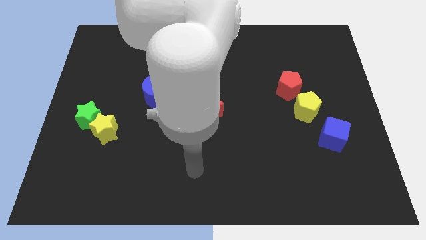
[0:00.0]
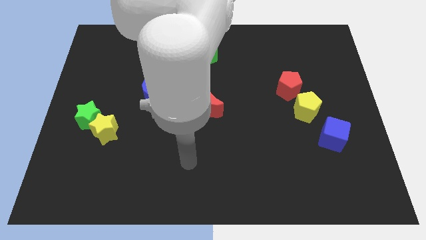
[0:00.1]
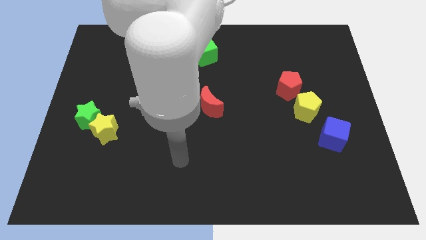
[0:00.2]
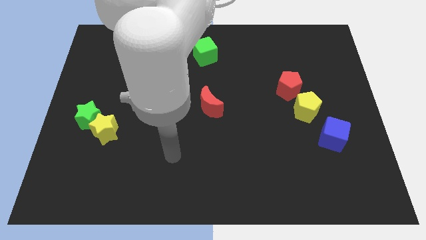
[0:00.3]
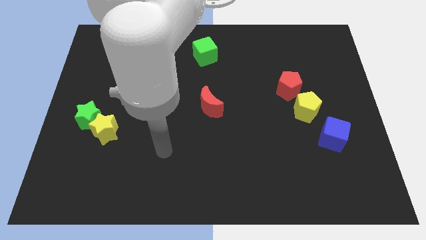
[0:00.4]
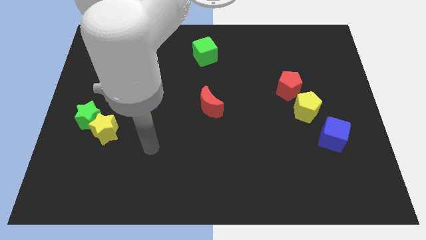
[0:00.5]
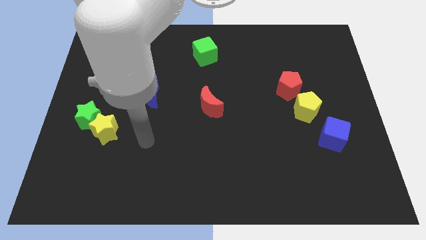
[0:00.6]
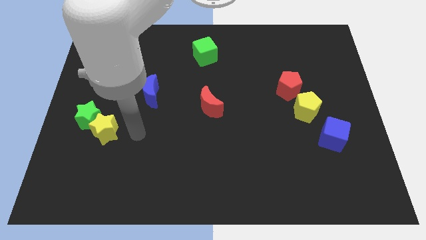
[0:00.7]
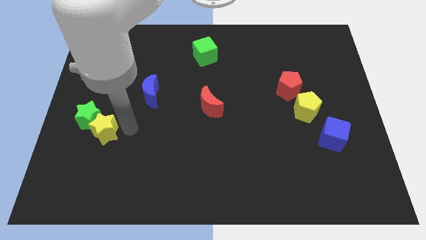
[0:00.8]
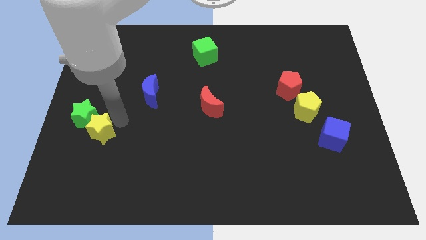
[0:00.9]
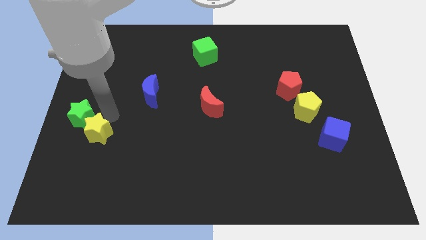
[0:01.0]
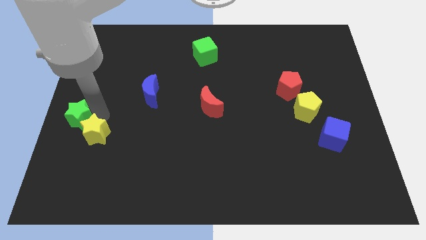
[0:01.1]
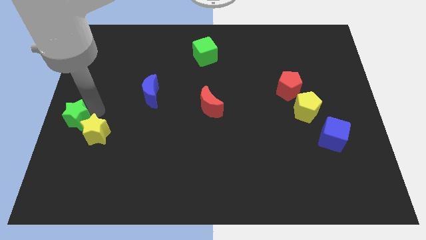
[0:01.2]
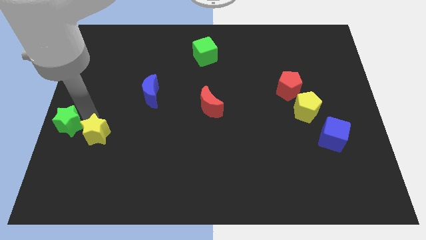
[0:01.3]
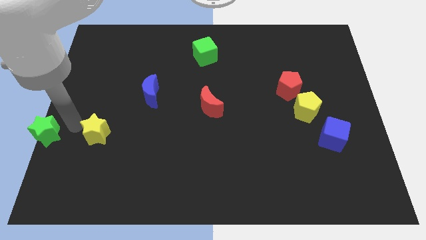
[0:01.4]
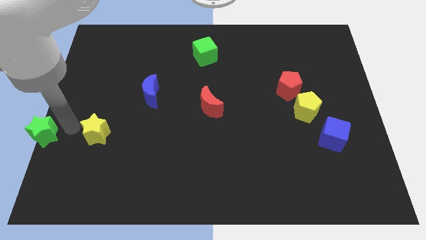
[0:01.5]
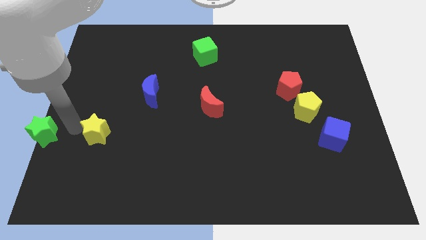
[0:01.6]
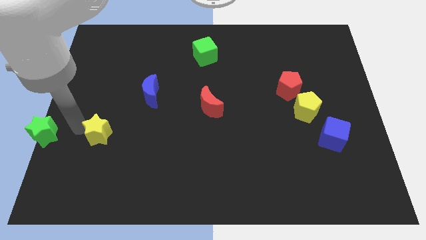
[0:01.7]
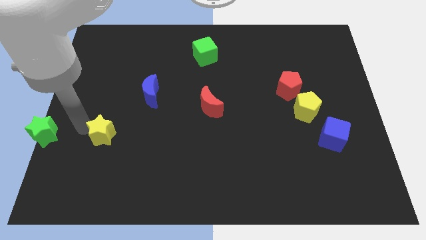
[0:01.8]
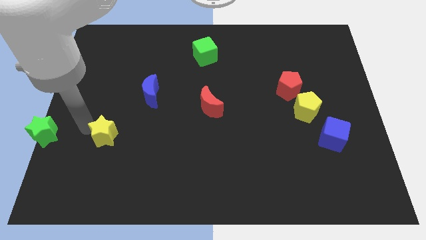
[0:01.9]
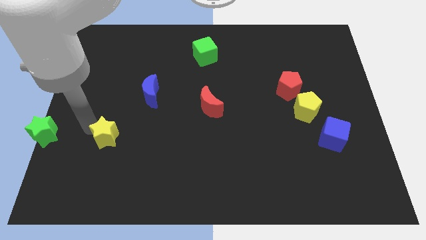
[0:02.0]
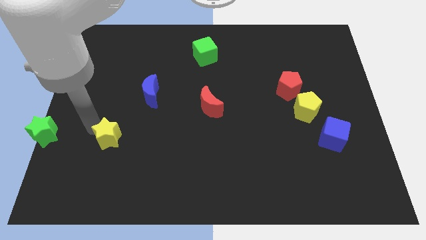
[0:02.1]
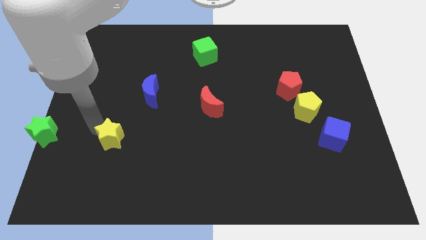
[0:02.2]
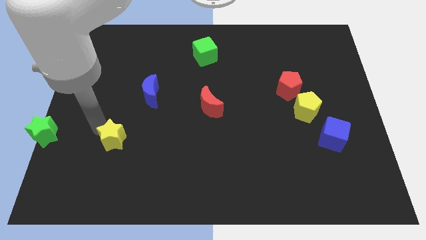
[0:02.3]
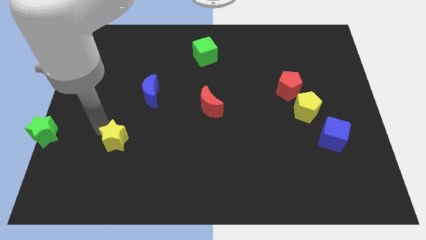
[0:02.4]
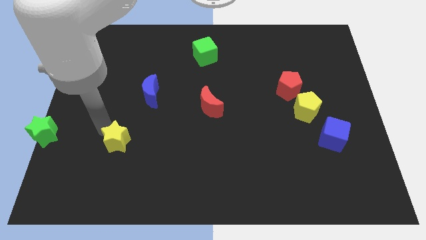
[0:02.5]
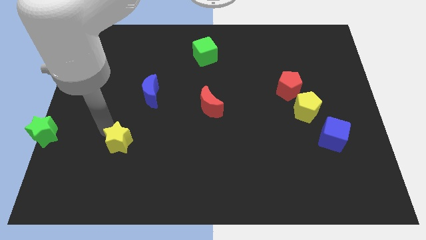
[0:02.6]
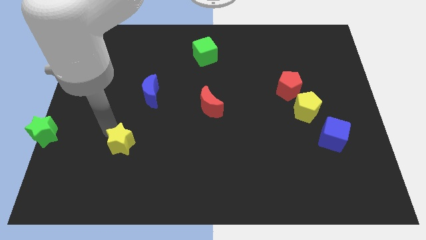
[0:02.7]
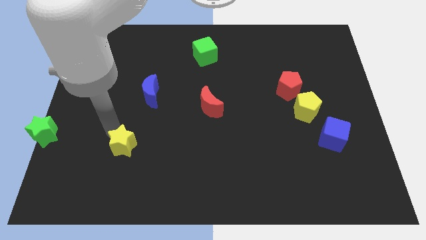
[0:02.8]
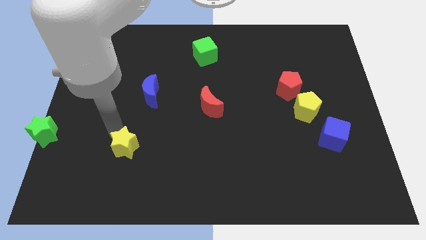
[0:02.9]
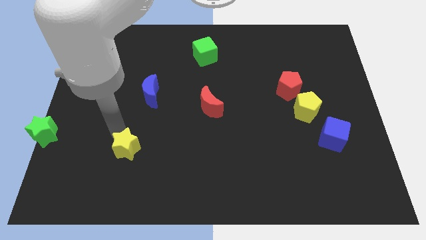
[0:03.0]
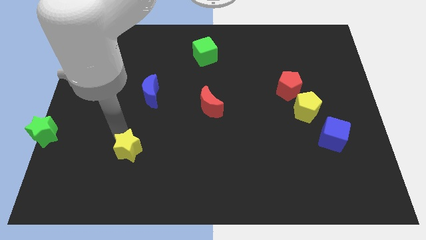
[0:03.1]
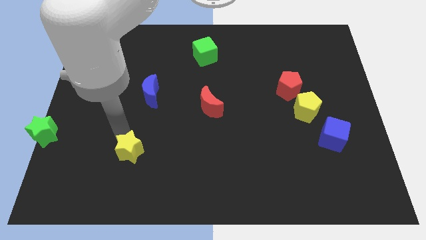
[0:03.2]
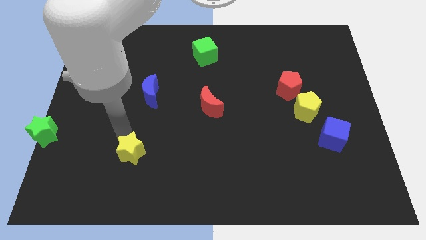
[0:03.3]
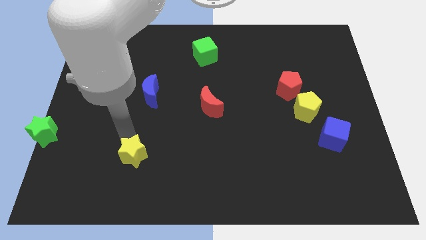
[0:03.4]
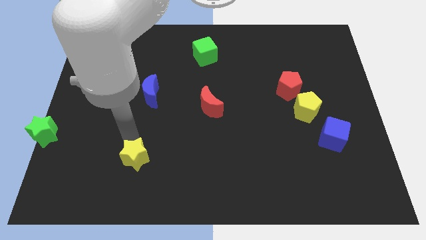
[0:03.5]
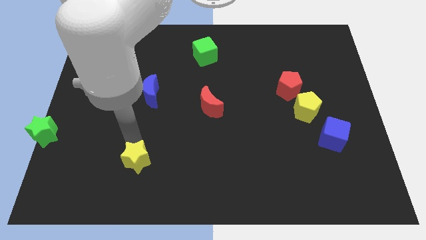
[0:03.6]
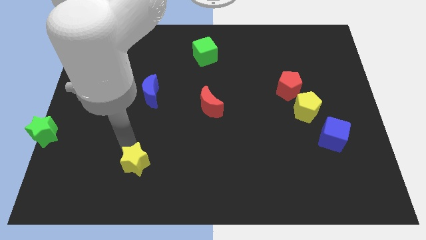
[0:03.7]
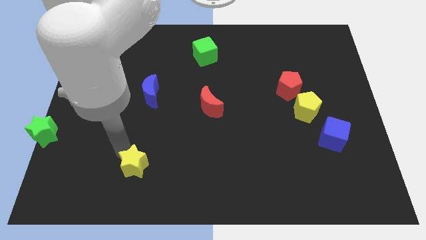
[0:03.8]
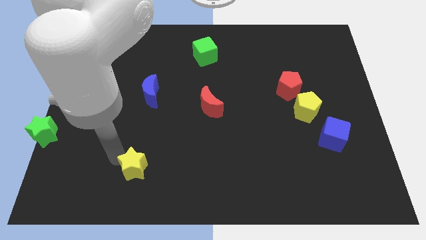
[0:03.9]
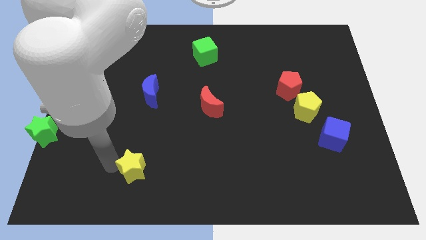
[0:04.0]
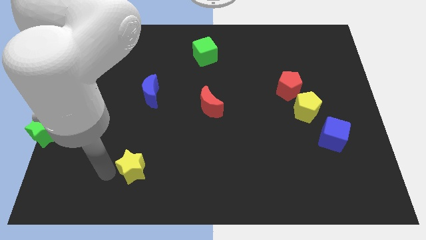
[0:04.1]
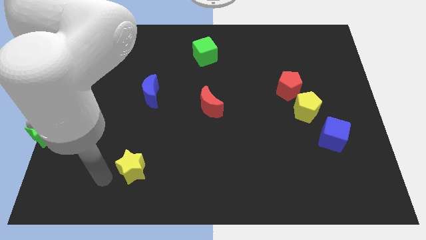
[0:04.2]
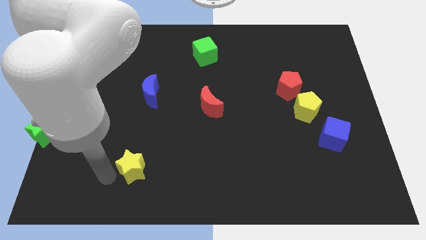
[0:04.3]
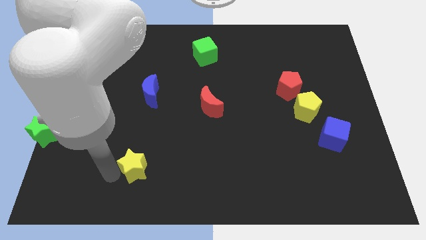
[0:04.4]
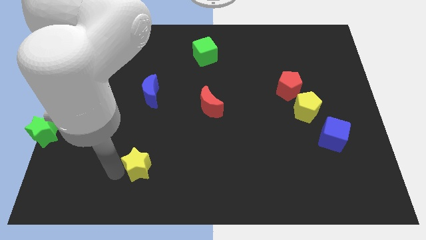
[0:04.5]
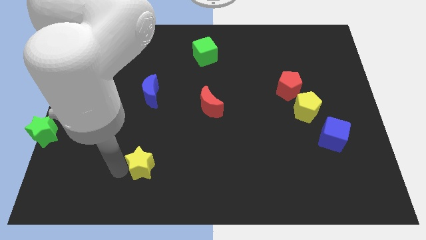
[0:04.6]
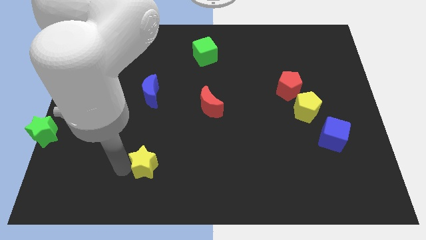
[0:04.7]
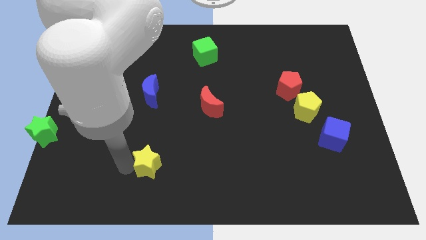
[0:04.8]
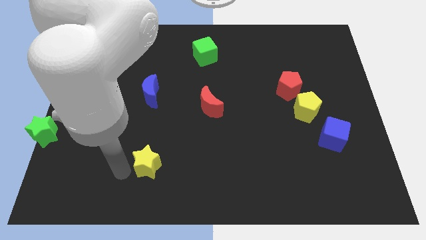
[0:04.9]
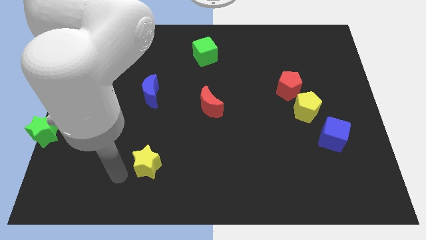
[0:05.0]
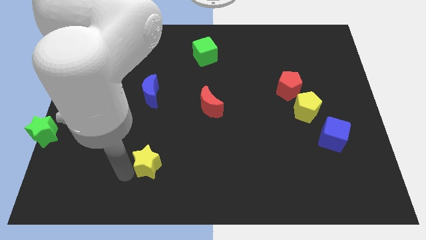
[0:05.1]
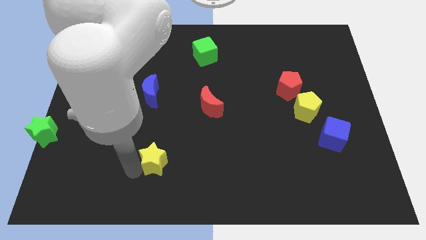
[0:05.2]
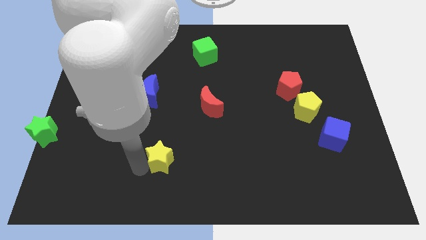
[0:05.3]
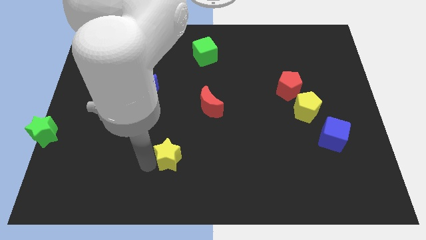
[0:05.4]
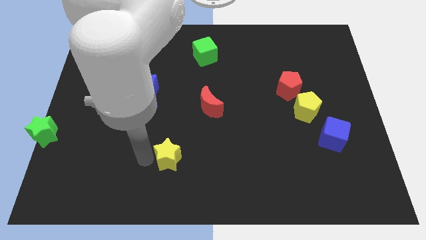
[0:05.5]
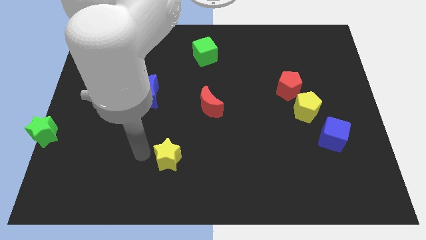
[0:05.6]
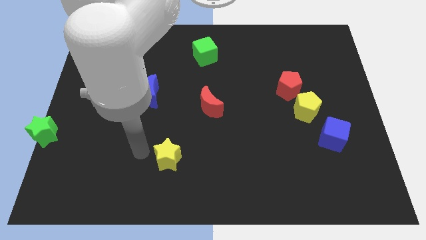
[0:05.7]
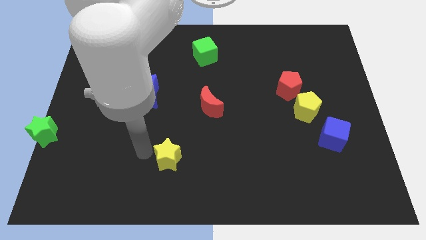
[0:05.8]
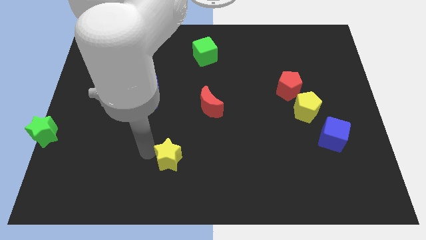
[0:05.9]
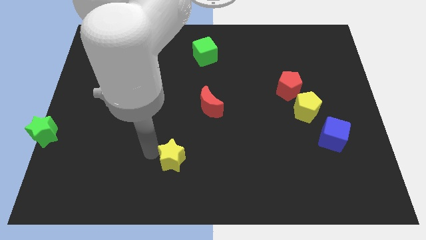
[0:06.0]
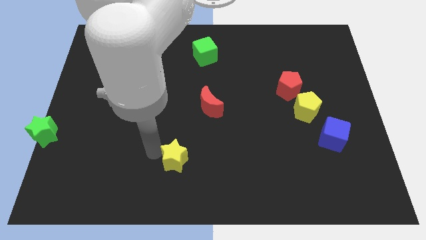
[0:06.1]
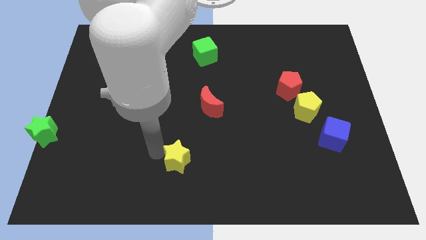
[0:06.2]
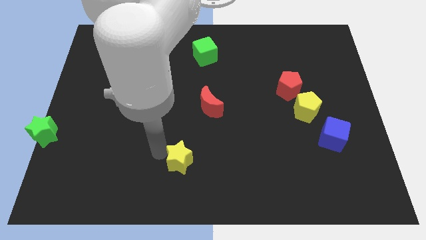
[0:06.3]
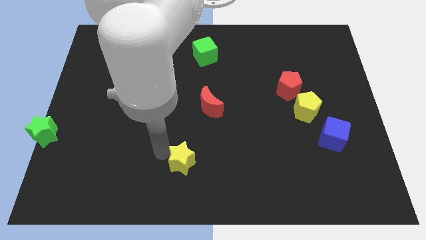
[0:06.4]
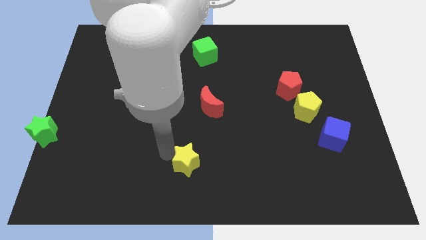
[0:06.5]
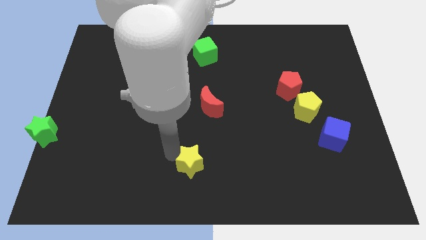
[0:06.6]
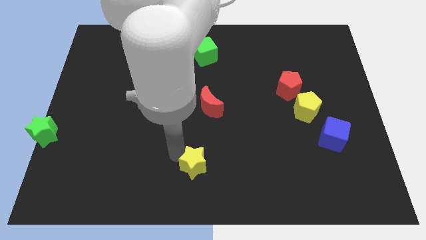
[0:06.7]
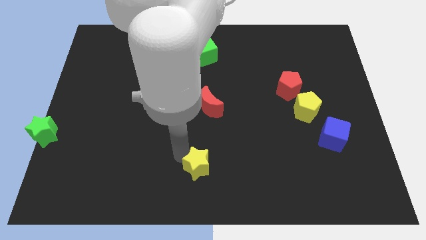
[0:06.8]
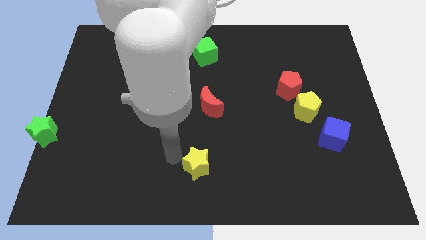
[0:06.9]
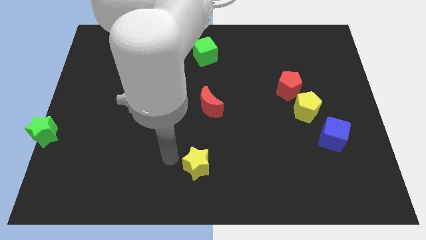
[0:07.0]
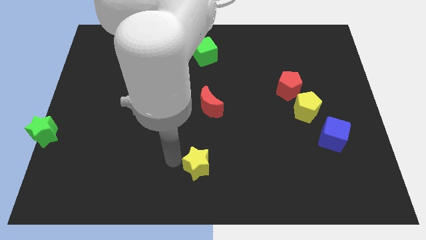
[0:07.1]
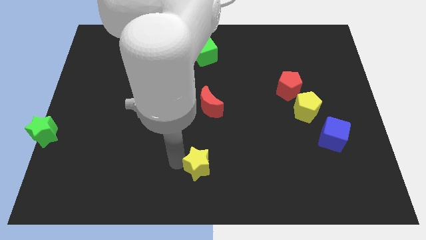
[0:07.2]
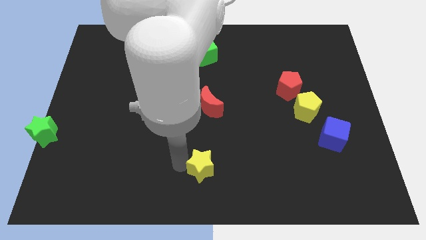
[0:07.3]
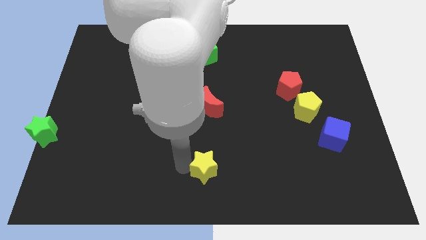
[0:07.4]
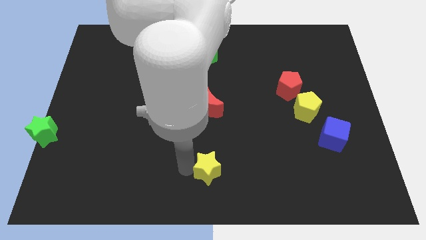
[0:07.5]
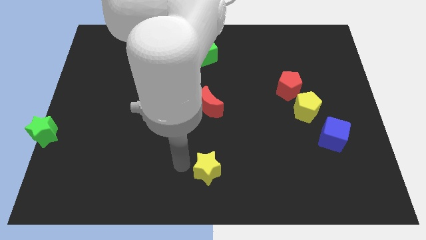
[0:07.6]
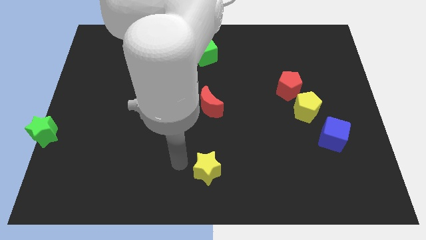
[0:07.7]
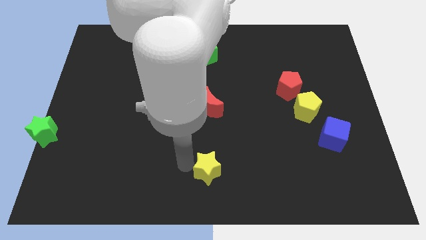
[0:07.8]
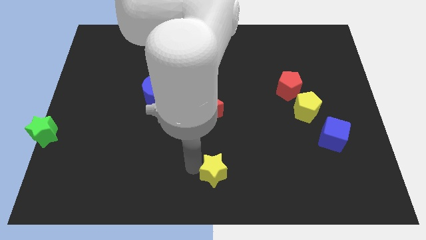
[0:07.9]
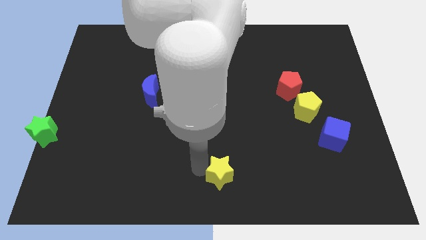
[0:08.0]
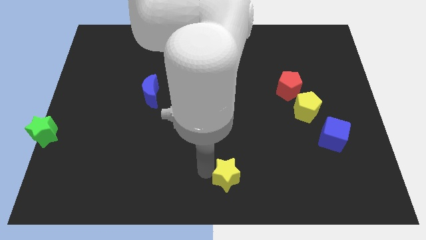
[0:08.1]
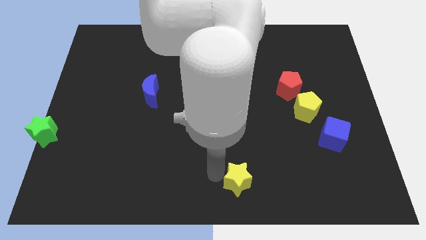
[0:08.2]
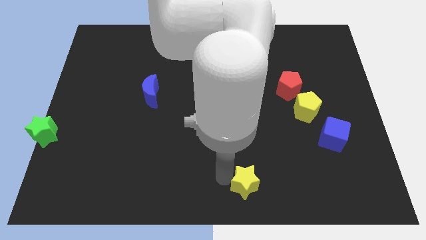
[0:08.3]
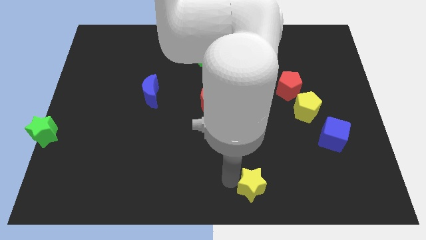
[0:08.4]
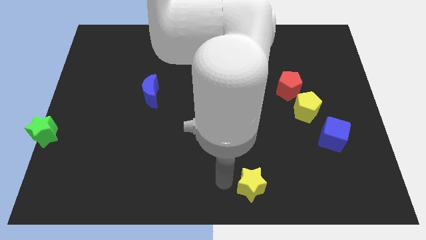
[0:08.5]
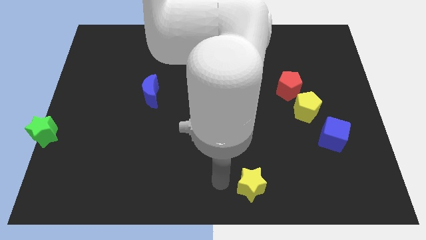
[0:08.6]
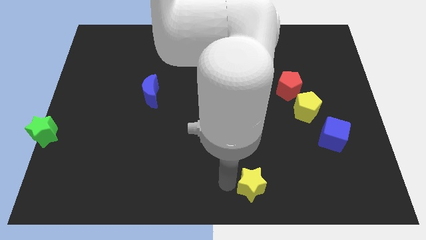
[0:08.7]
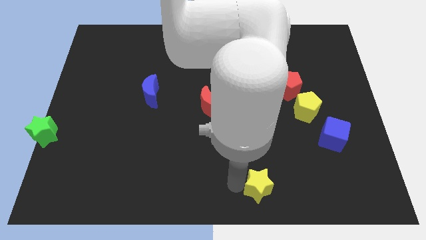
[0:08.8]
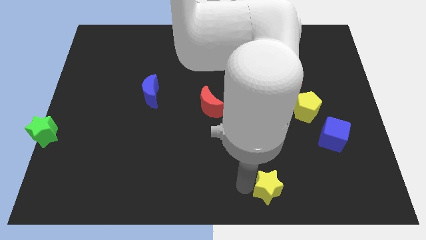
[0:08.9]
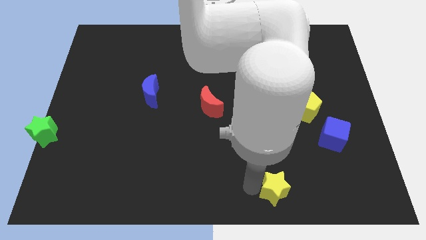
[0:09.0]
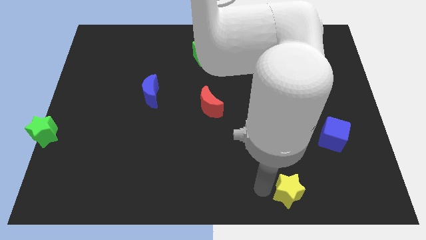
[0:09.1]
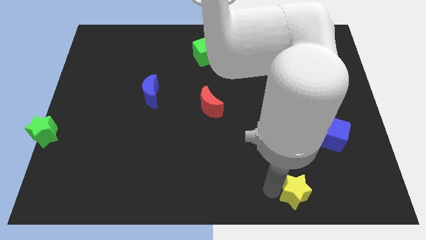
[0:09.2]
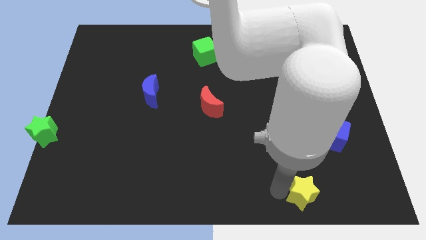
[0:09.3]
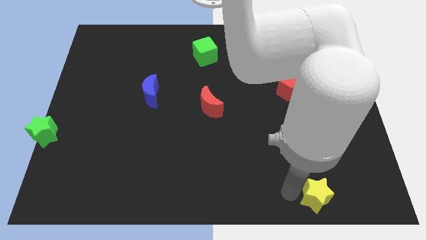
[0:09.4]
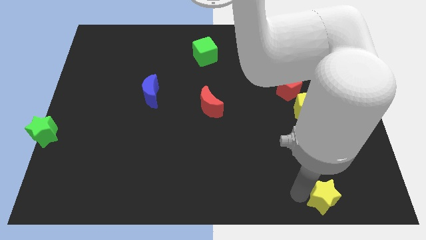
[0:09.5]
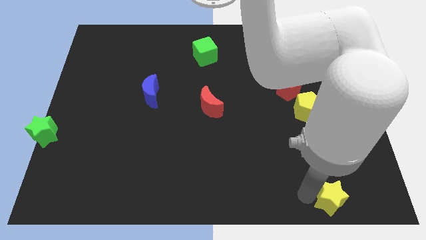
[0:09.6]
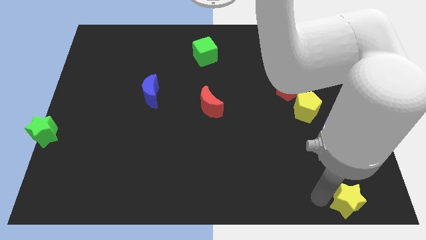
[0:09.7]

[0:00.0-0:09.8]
put the yellow star to the bottom right
